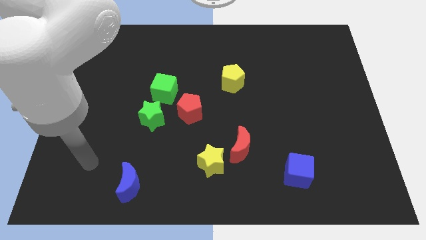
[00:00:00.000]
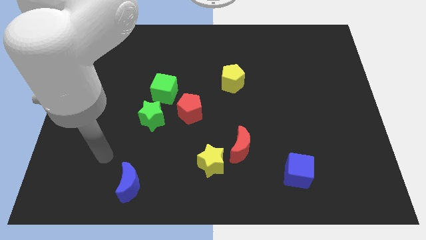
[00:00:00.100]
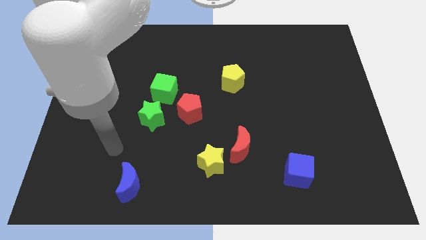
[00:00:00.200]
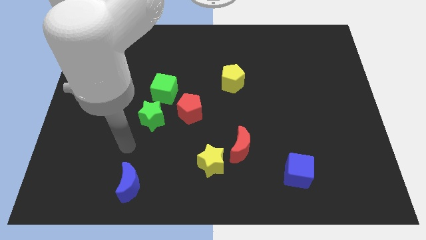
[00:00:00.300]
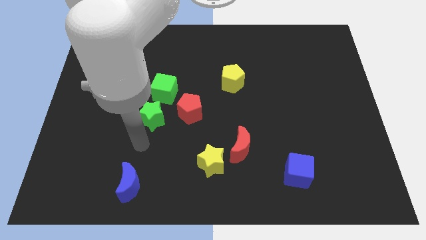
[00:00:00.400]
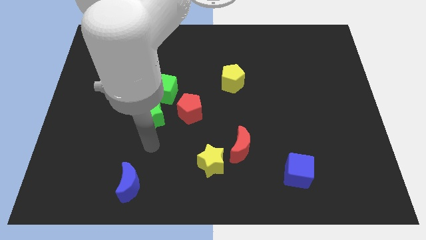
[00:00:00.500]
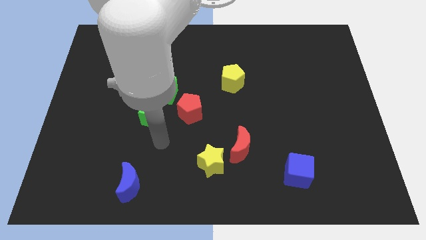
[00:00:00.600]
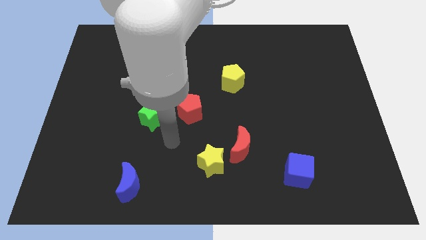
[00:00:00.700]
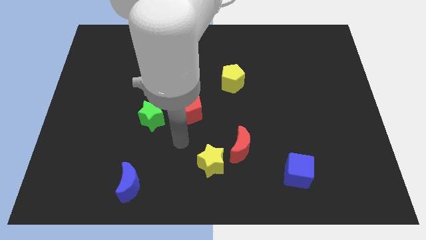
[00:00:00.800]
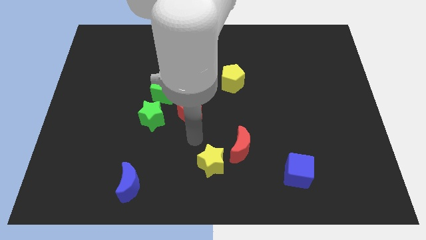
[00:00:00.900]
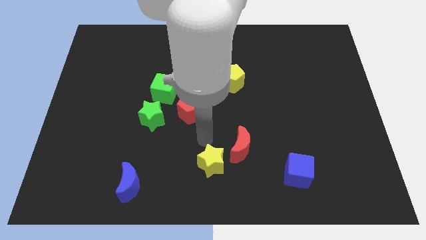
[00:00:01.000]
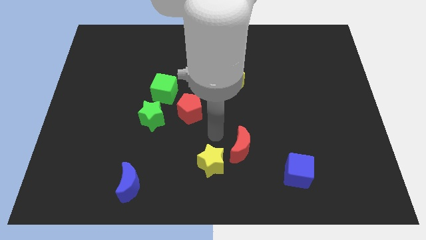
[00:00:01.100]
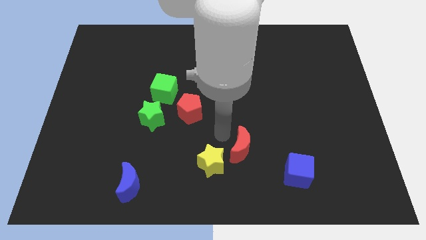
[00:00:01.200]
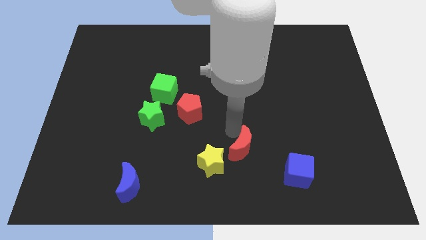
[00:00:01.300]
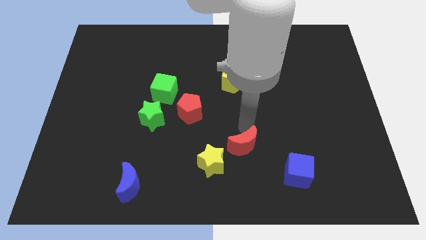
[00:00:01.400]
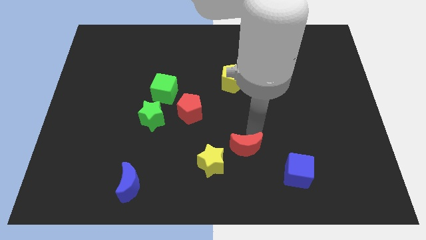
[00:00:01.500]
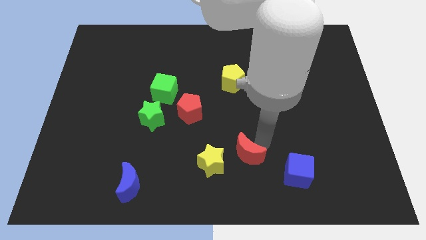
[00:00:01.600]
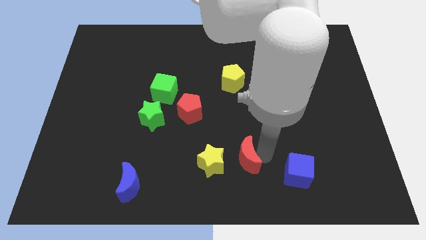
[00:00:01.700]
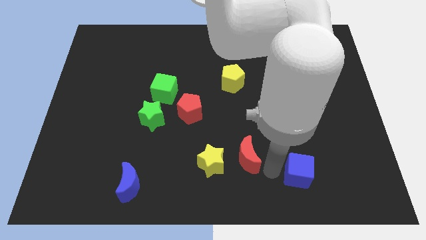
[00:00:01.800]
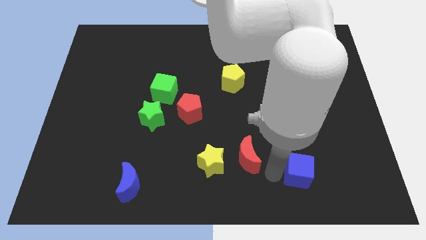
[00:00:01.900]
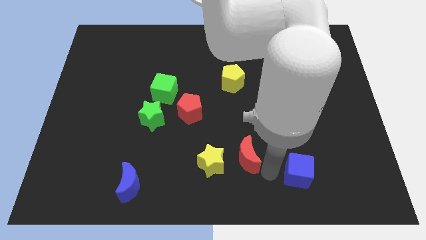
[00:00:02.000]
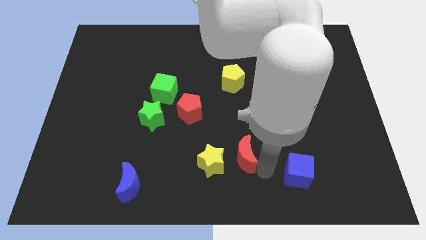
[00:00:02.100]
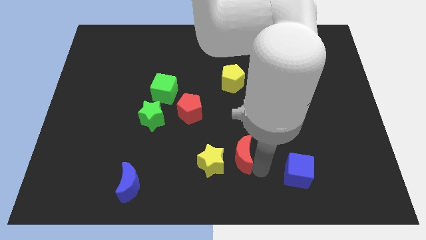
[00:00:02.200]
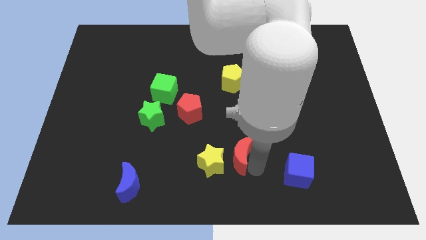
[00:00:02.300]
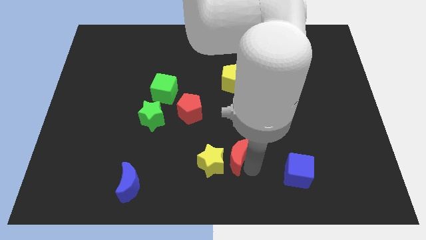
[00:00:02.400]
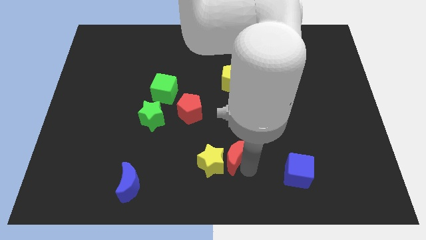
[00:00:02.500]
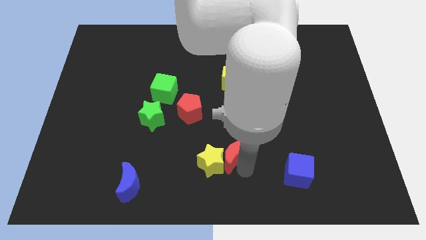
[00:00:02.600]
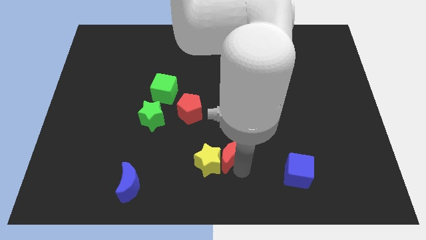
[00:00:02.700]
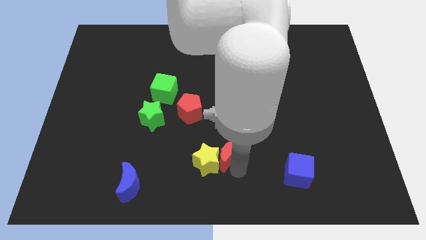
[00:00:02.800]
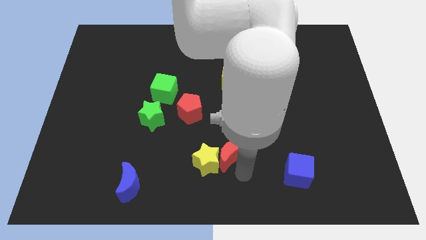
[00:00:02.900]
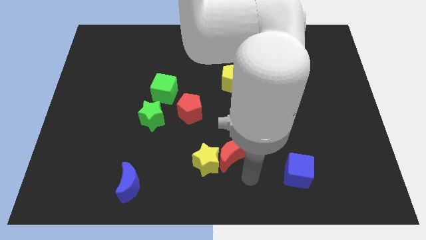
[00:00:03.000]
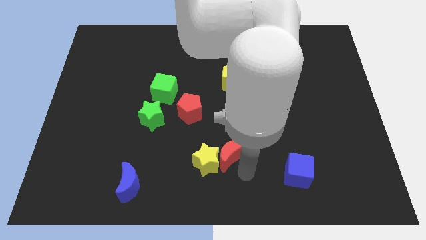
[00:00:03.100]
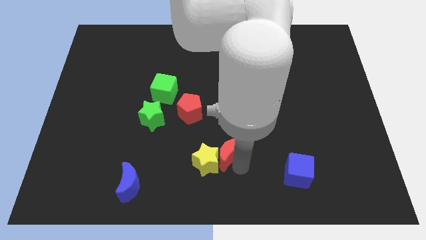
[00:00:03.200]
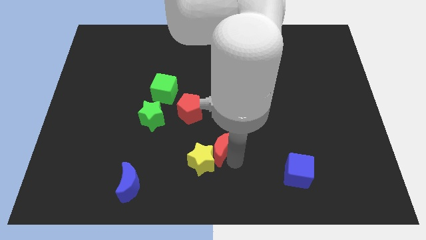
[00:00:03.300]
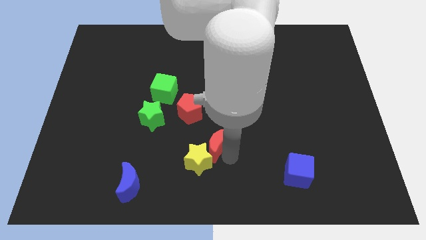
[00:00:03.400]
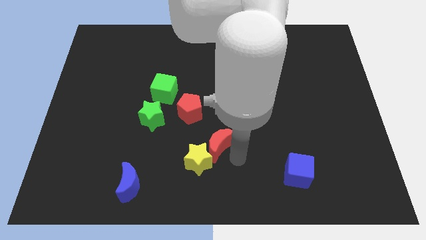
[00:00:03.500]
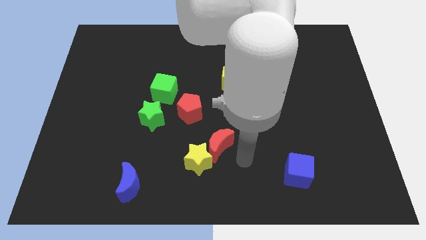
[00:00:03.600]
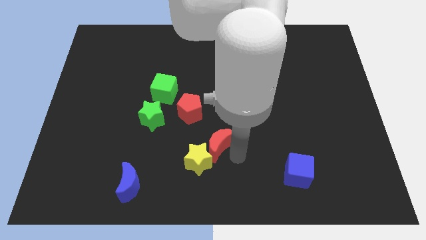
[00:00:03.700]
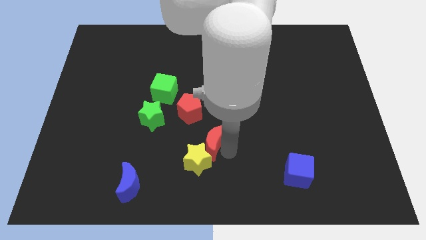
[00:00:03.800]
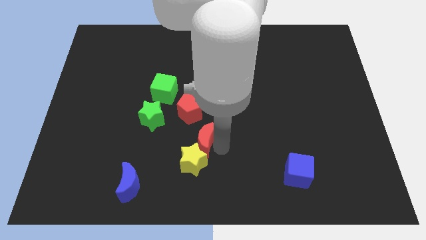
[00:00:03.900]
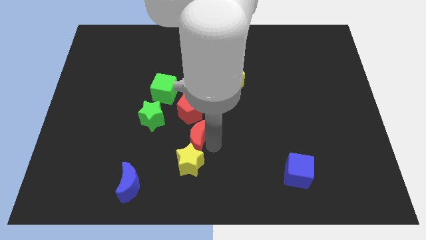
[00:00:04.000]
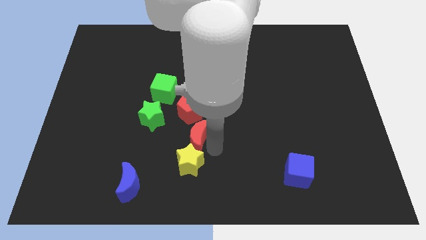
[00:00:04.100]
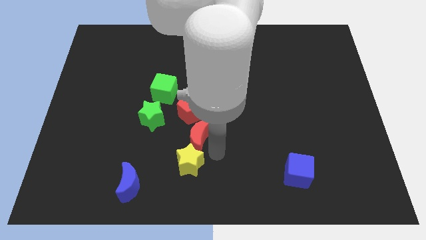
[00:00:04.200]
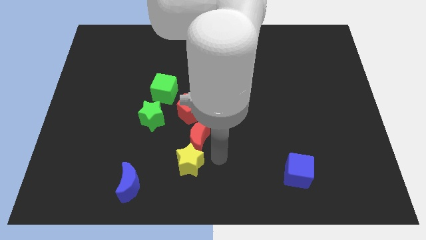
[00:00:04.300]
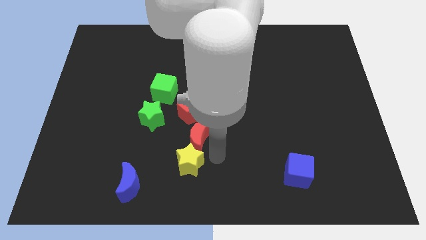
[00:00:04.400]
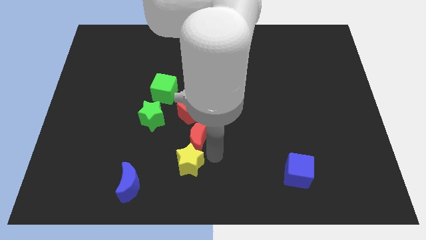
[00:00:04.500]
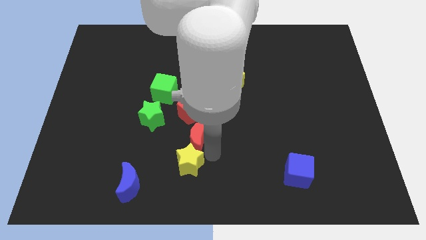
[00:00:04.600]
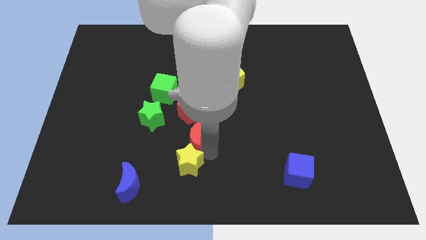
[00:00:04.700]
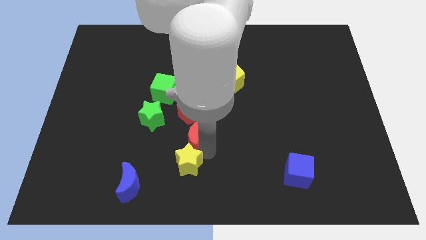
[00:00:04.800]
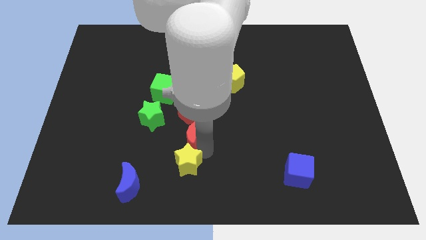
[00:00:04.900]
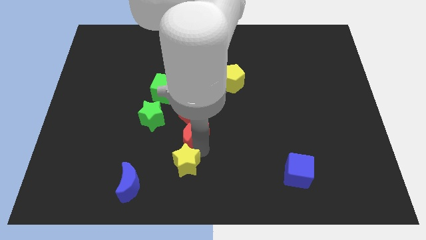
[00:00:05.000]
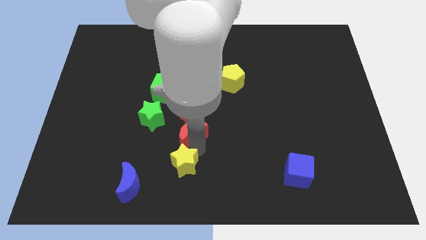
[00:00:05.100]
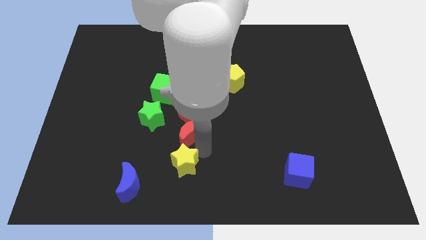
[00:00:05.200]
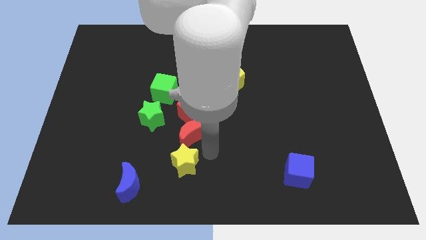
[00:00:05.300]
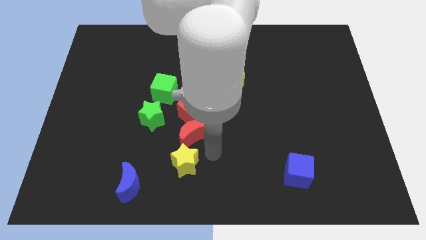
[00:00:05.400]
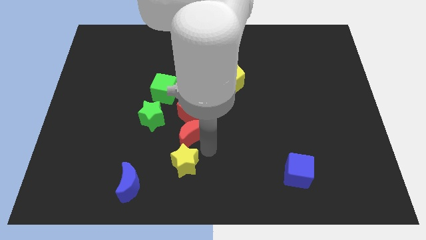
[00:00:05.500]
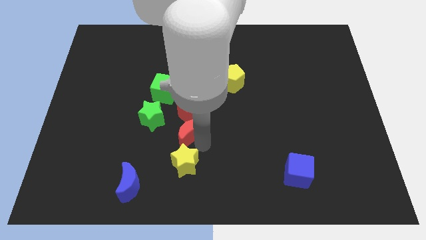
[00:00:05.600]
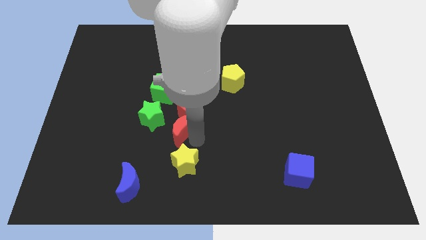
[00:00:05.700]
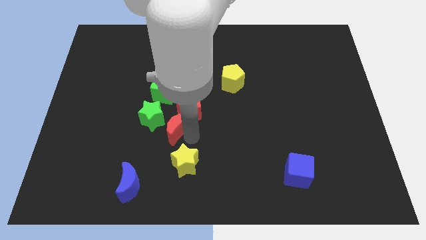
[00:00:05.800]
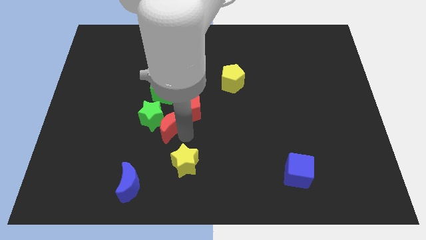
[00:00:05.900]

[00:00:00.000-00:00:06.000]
put the red moon towards the green star

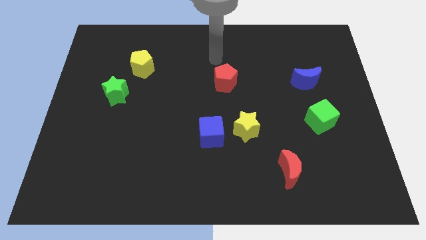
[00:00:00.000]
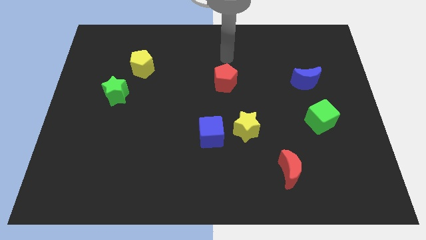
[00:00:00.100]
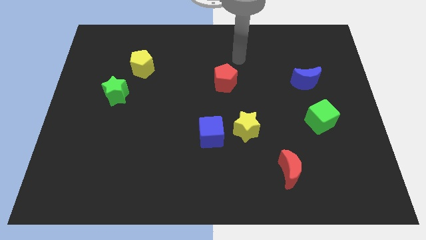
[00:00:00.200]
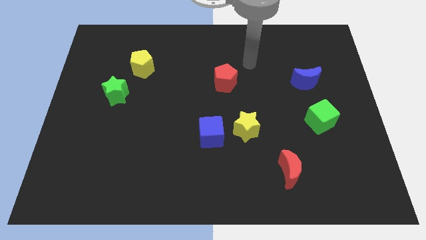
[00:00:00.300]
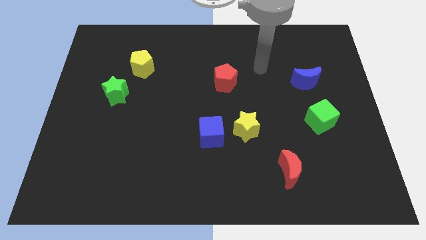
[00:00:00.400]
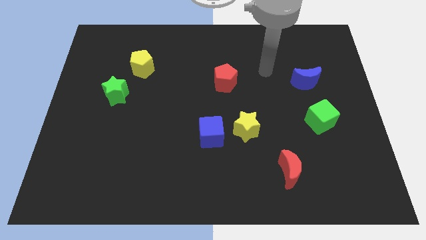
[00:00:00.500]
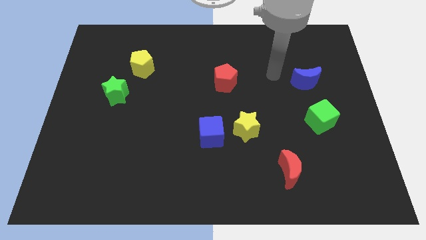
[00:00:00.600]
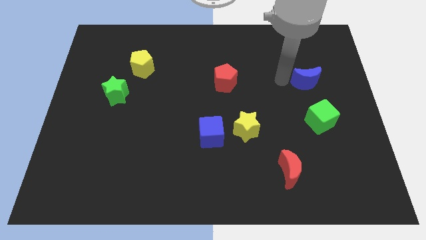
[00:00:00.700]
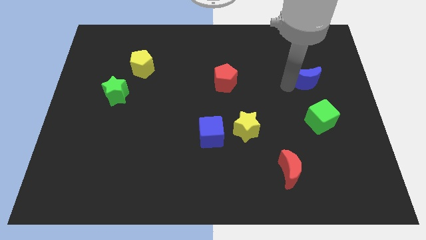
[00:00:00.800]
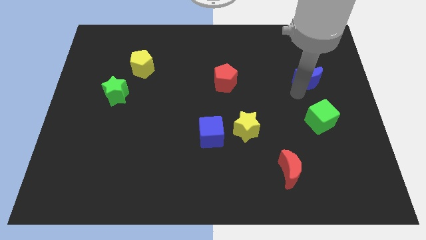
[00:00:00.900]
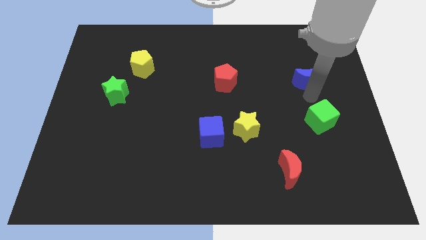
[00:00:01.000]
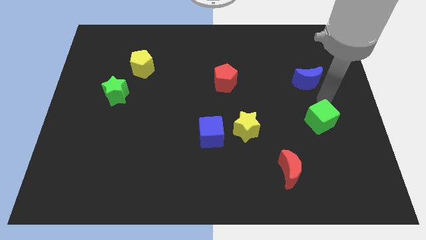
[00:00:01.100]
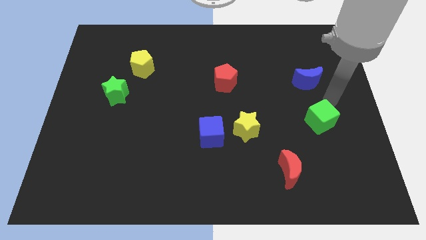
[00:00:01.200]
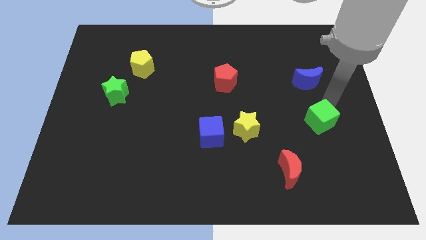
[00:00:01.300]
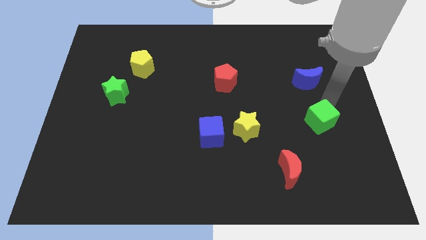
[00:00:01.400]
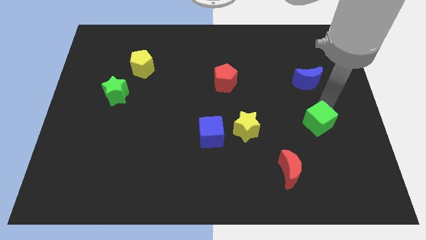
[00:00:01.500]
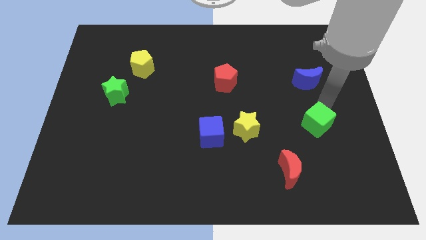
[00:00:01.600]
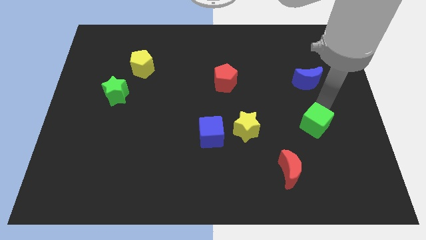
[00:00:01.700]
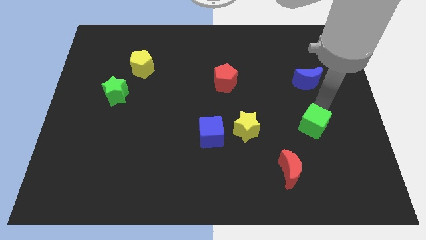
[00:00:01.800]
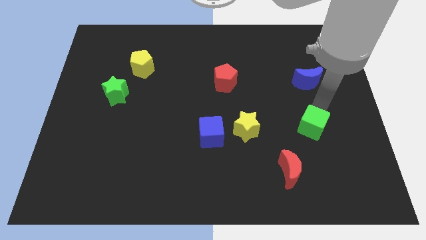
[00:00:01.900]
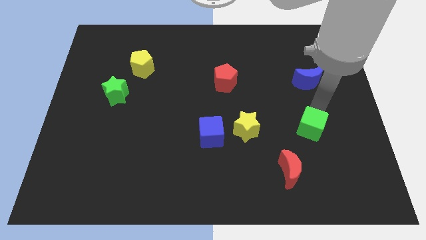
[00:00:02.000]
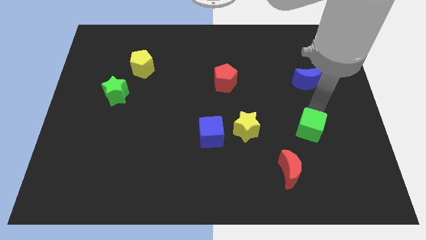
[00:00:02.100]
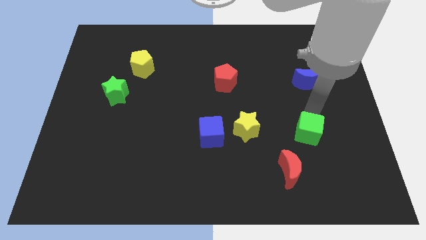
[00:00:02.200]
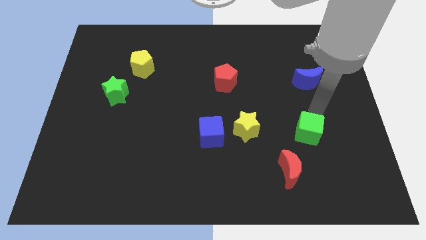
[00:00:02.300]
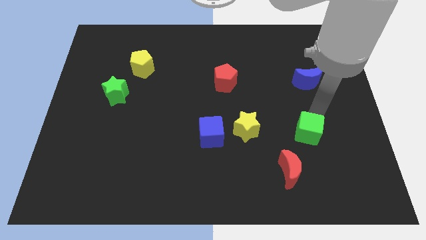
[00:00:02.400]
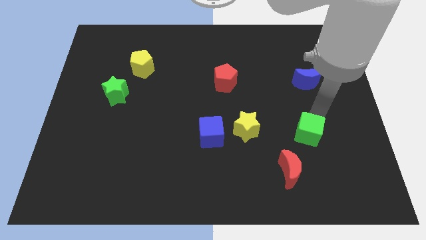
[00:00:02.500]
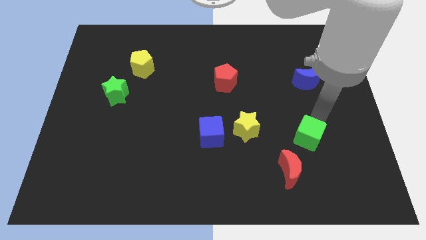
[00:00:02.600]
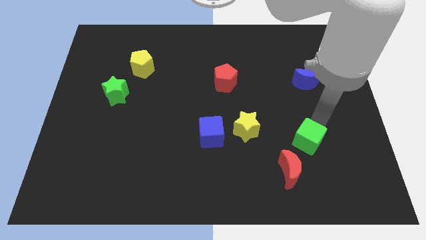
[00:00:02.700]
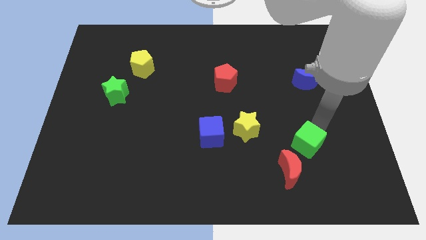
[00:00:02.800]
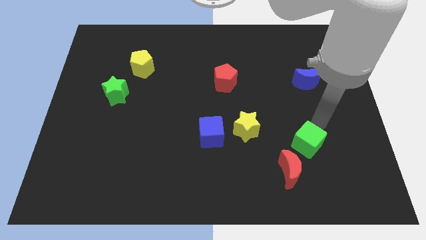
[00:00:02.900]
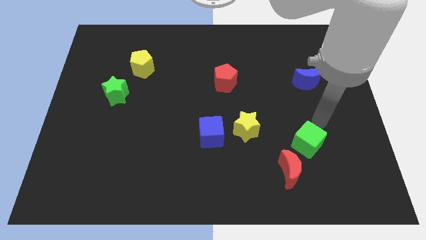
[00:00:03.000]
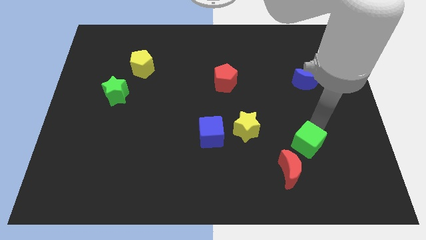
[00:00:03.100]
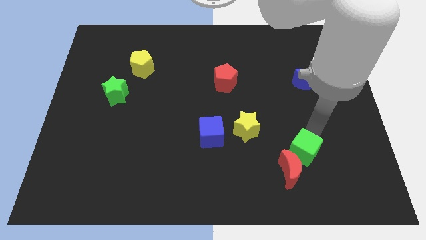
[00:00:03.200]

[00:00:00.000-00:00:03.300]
move the green cube close to the red moon
